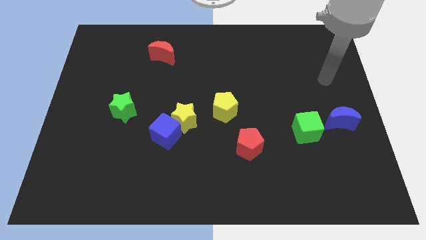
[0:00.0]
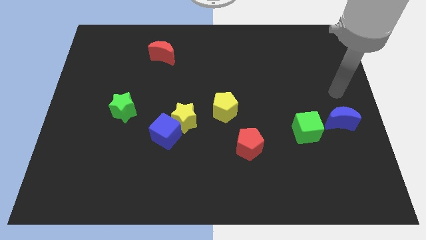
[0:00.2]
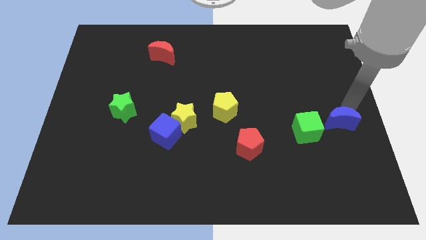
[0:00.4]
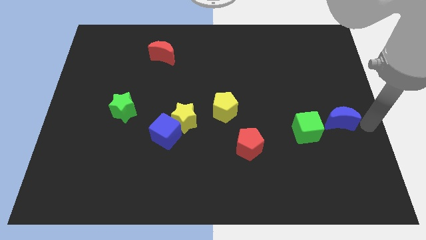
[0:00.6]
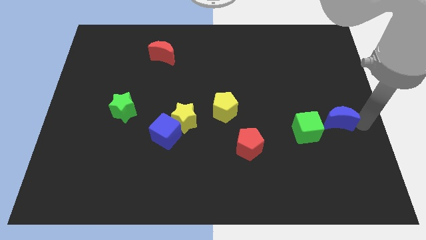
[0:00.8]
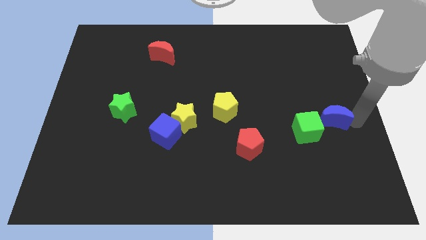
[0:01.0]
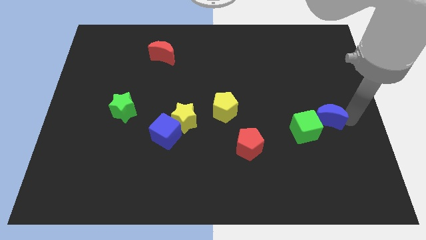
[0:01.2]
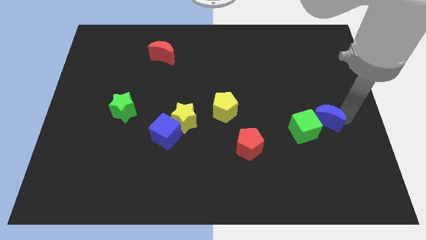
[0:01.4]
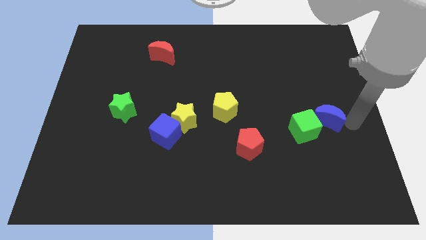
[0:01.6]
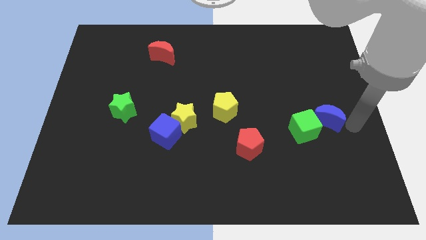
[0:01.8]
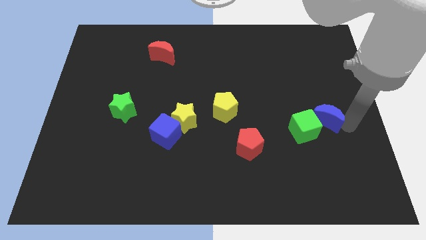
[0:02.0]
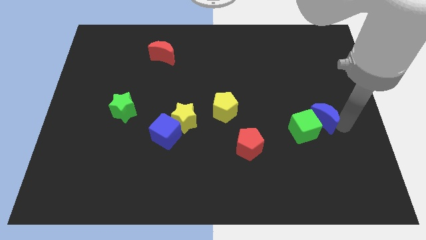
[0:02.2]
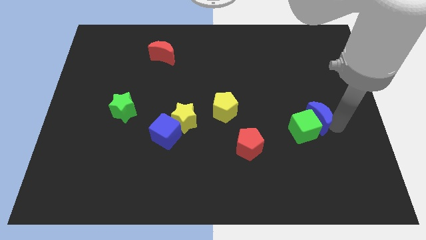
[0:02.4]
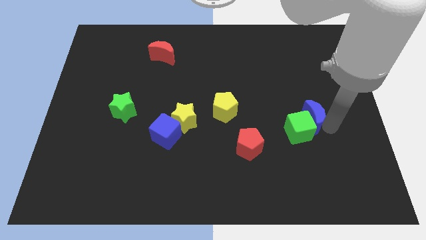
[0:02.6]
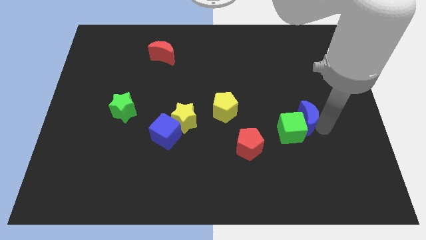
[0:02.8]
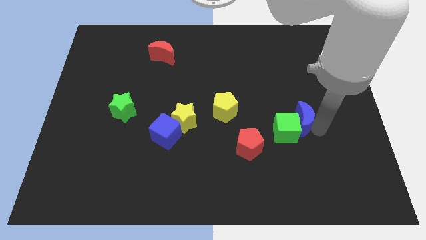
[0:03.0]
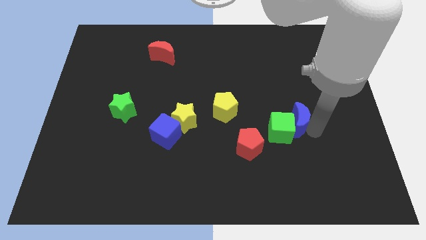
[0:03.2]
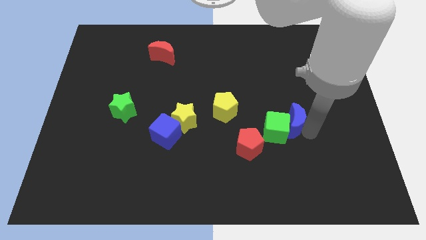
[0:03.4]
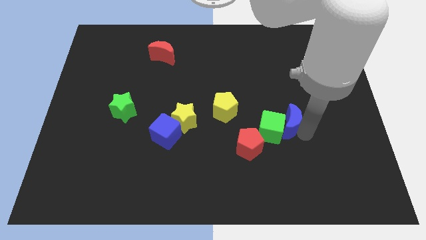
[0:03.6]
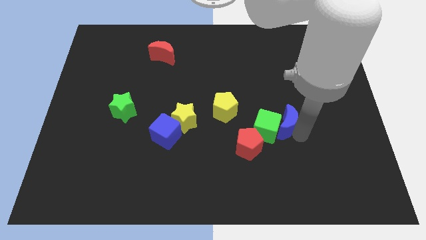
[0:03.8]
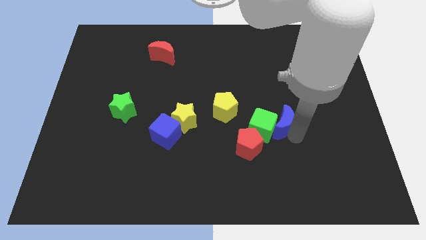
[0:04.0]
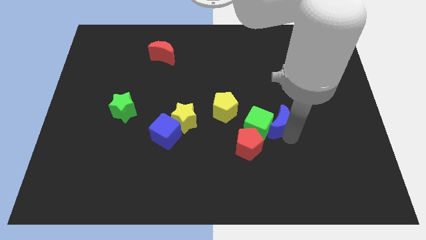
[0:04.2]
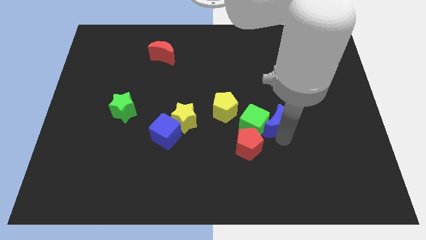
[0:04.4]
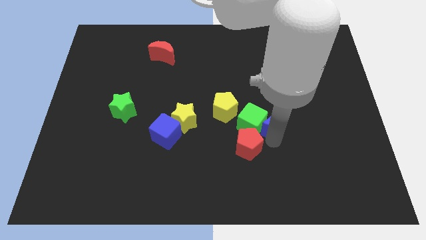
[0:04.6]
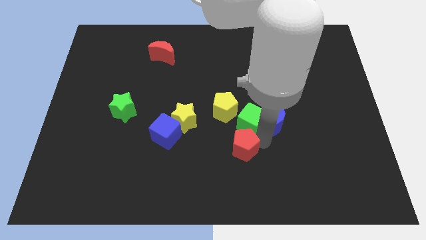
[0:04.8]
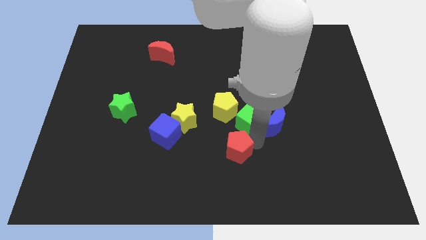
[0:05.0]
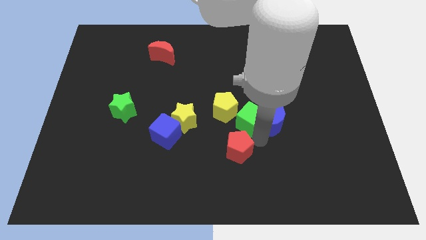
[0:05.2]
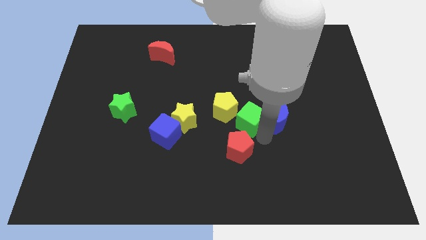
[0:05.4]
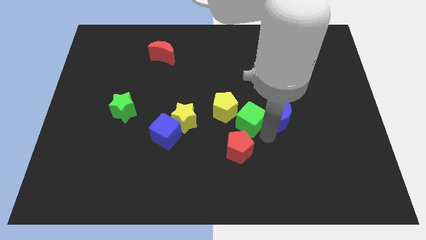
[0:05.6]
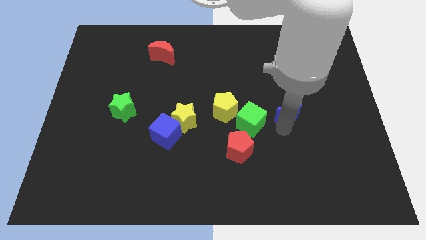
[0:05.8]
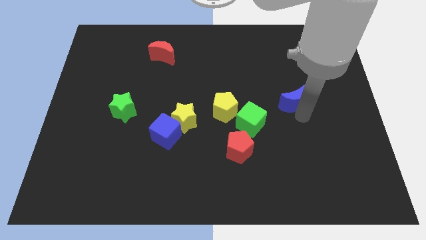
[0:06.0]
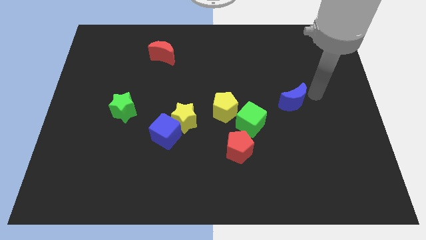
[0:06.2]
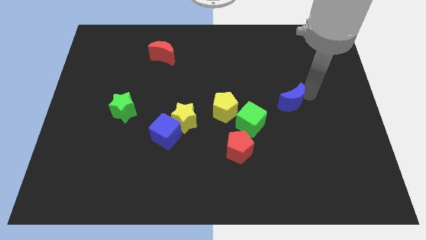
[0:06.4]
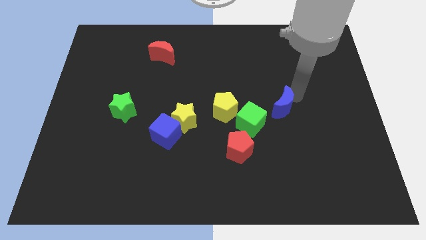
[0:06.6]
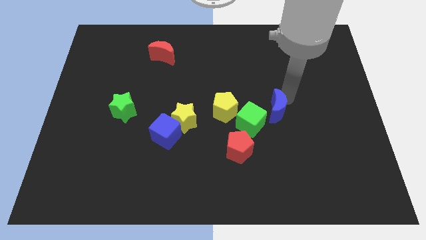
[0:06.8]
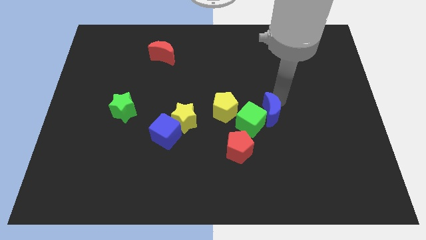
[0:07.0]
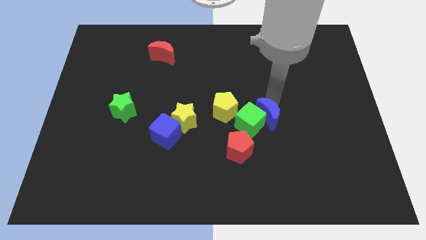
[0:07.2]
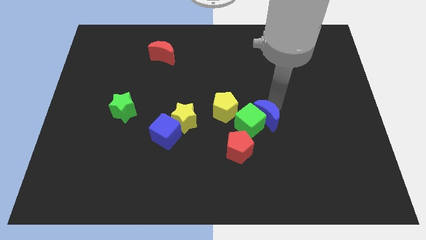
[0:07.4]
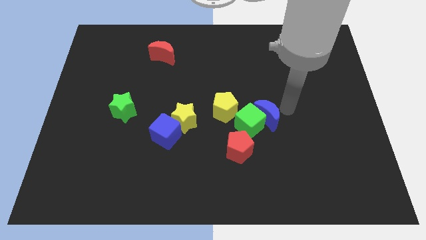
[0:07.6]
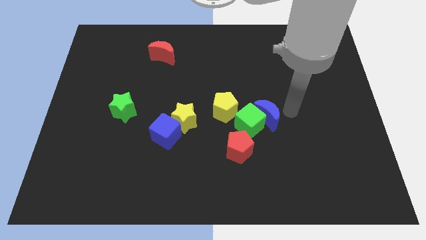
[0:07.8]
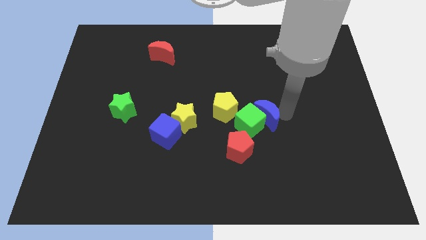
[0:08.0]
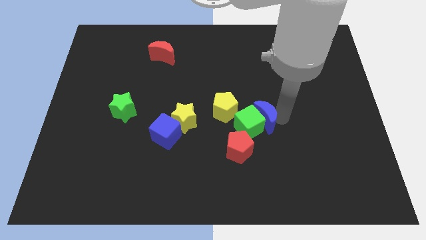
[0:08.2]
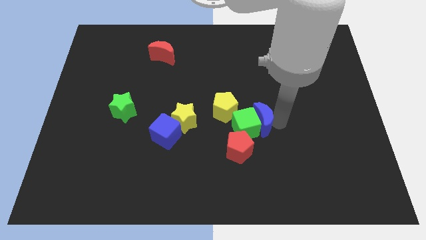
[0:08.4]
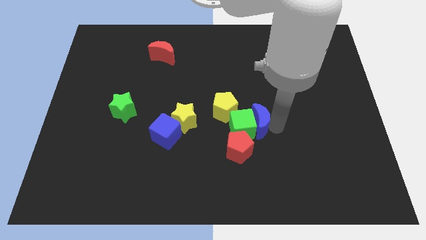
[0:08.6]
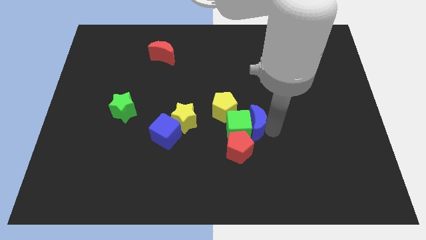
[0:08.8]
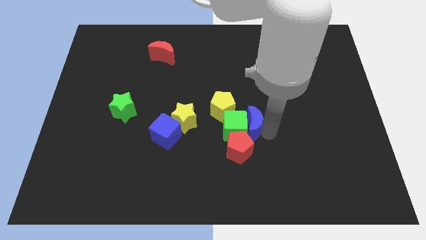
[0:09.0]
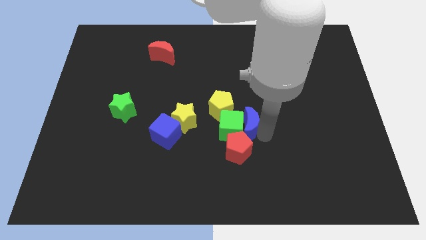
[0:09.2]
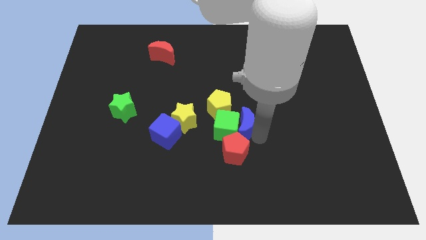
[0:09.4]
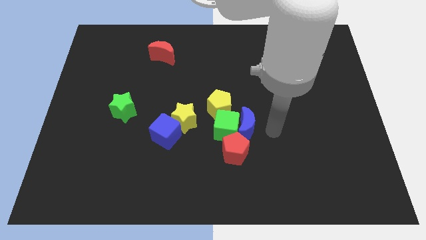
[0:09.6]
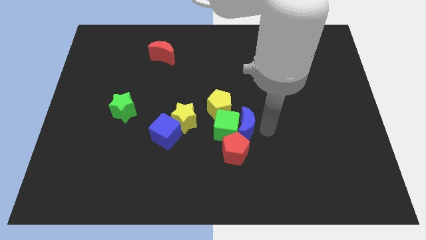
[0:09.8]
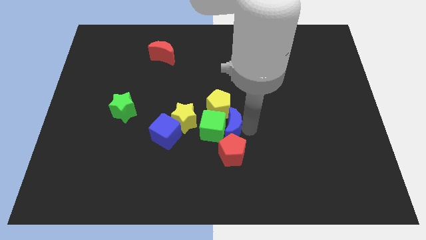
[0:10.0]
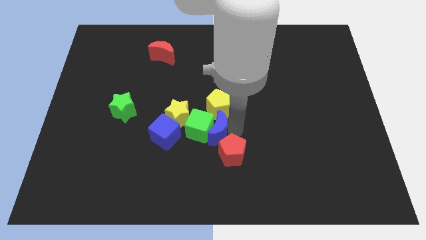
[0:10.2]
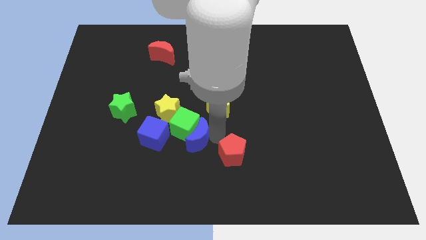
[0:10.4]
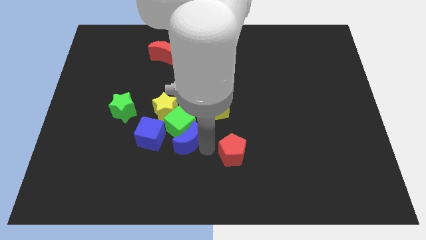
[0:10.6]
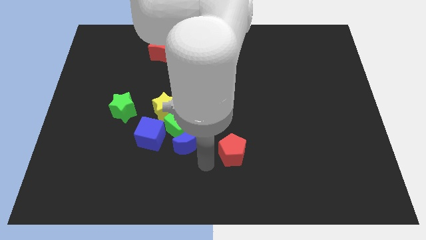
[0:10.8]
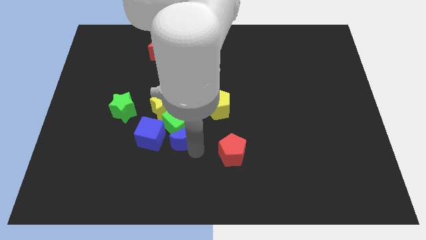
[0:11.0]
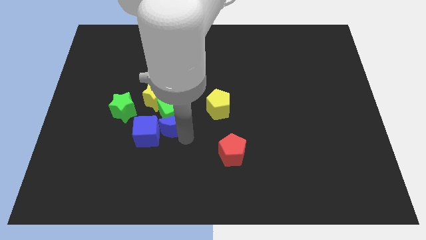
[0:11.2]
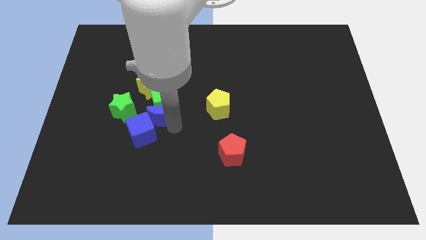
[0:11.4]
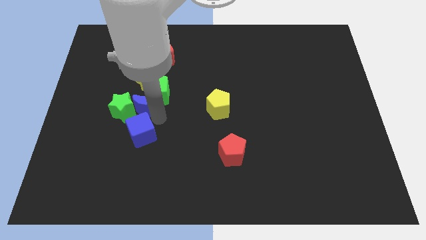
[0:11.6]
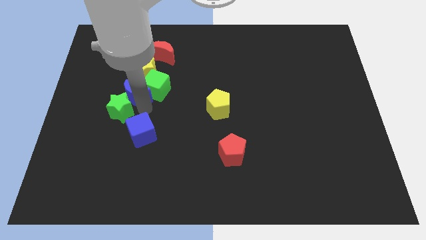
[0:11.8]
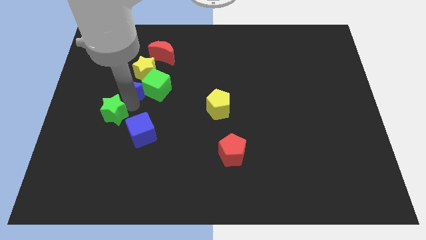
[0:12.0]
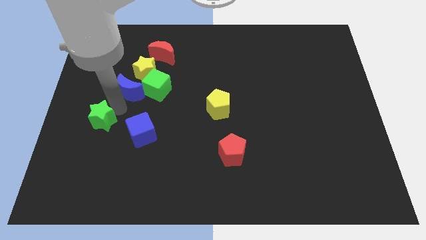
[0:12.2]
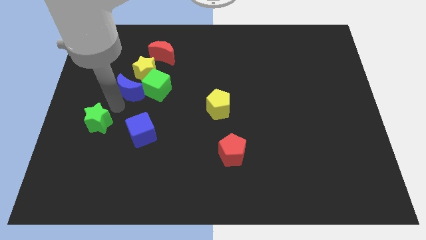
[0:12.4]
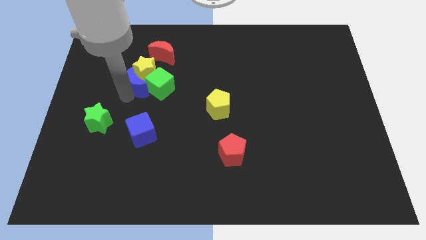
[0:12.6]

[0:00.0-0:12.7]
put the blue moon towards the yellow star

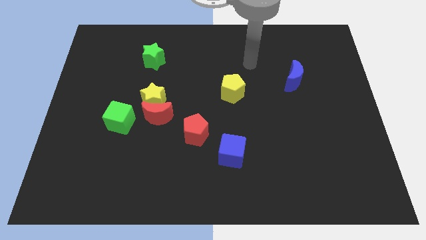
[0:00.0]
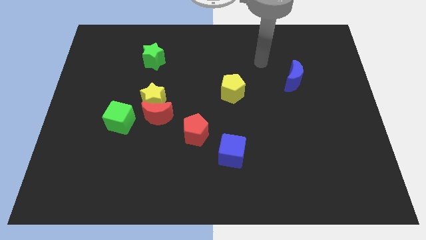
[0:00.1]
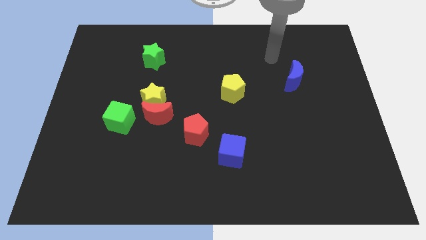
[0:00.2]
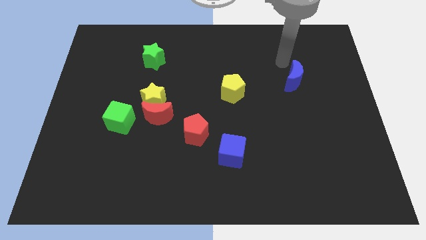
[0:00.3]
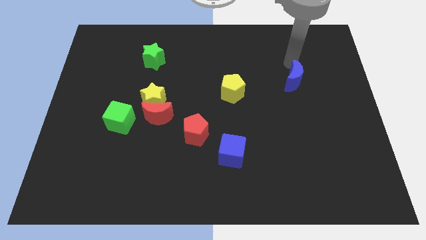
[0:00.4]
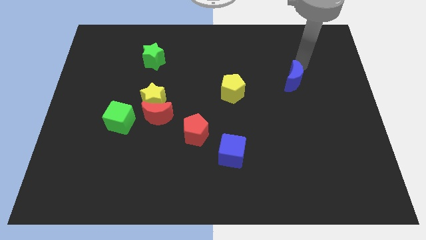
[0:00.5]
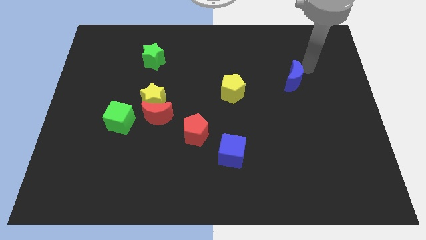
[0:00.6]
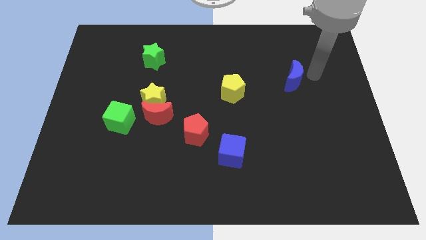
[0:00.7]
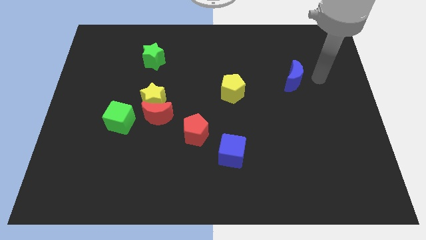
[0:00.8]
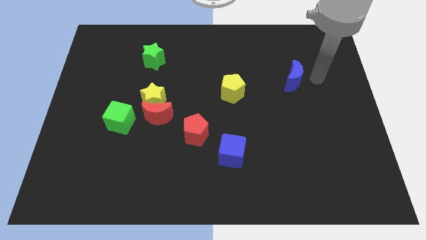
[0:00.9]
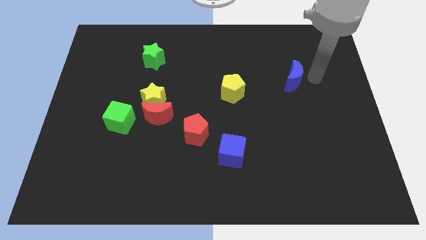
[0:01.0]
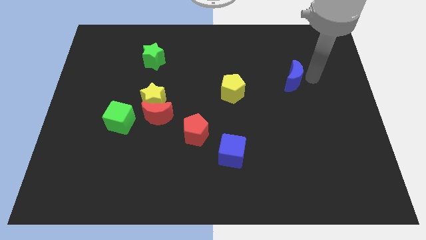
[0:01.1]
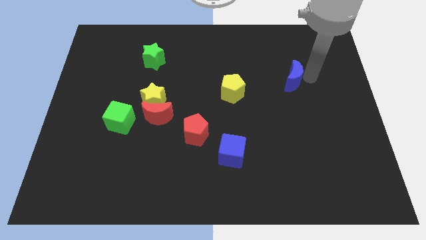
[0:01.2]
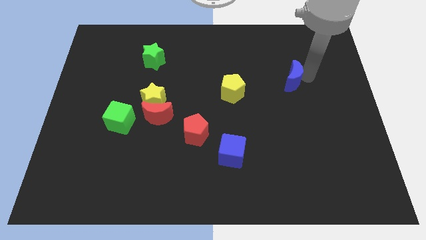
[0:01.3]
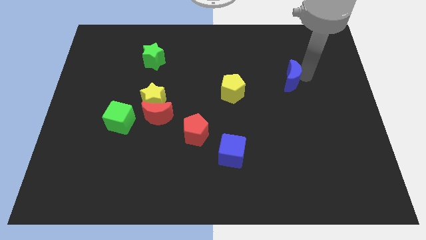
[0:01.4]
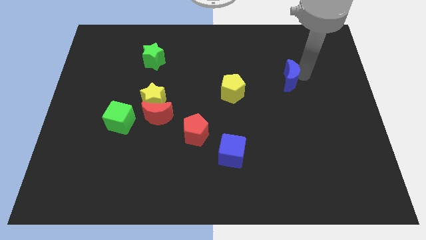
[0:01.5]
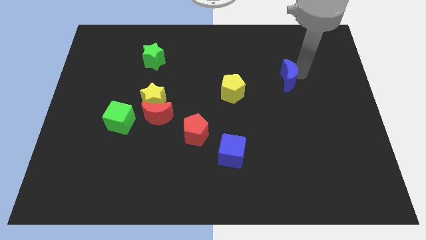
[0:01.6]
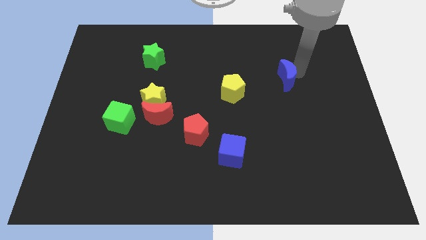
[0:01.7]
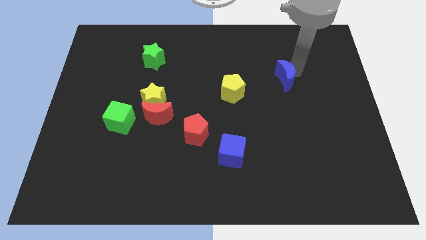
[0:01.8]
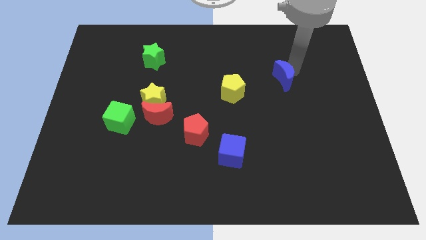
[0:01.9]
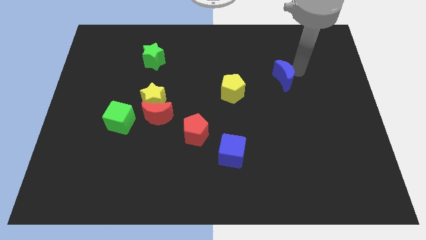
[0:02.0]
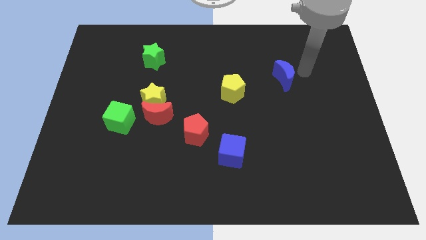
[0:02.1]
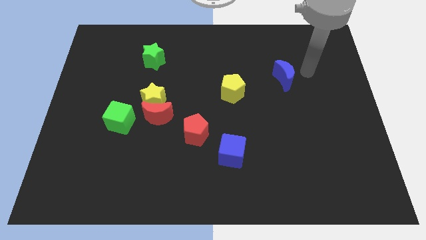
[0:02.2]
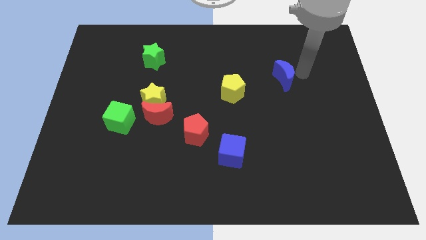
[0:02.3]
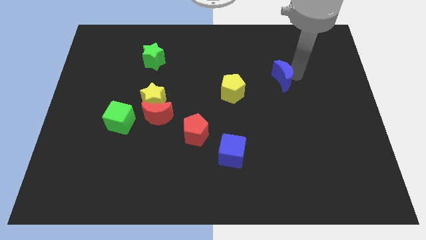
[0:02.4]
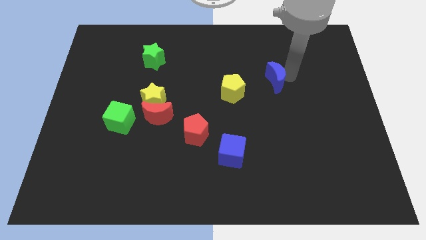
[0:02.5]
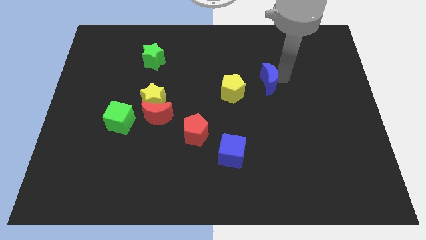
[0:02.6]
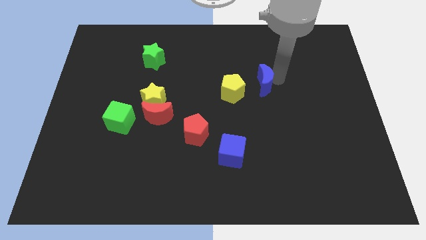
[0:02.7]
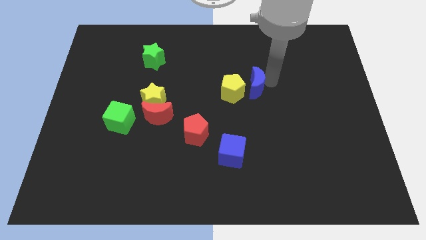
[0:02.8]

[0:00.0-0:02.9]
push the blue moon towards the yellow pentagon
